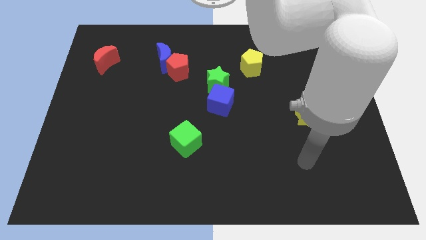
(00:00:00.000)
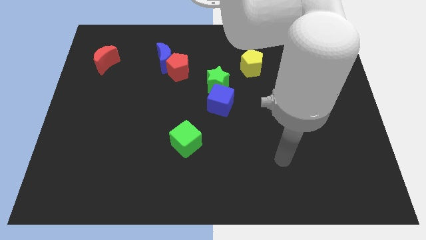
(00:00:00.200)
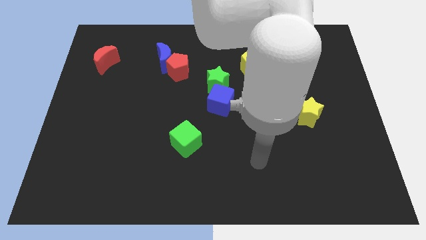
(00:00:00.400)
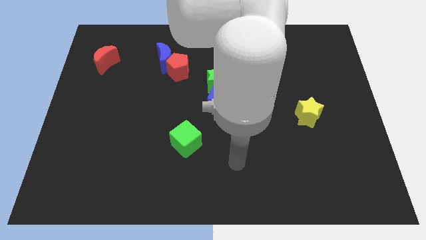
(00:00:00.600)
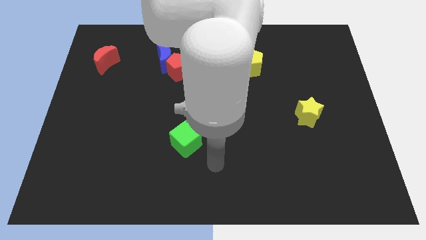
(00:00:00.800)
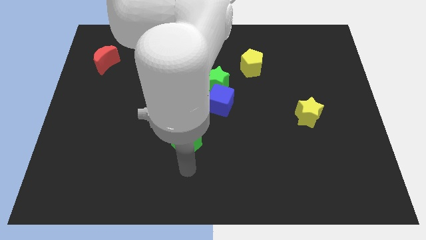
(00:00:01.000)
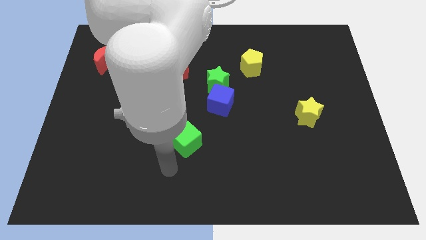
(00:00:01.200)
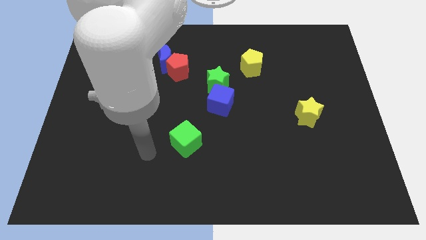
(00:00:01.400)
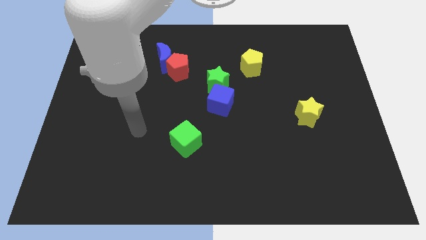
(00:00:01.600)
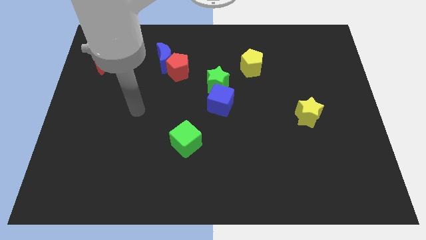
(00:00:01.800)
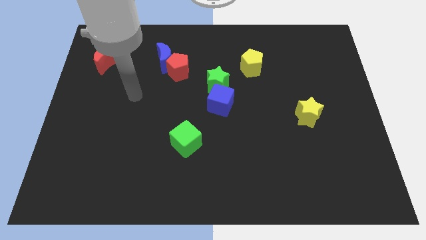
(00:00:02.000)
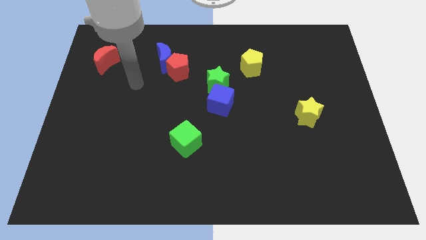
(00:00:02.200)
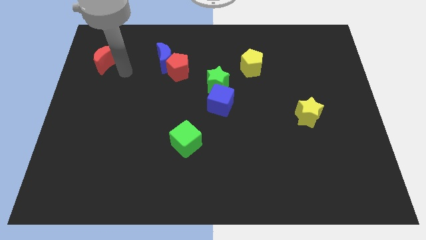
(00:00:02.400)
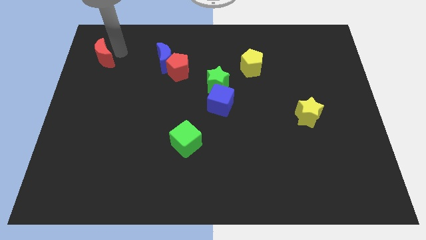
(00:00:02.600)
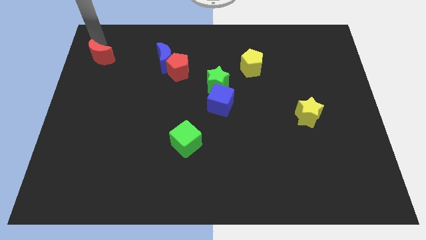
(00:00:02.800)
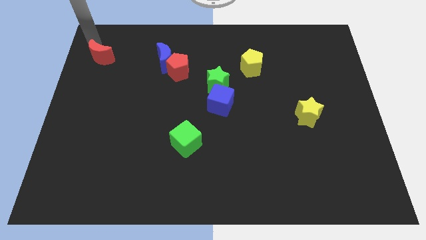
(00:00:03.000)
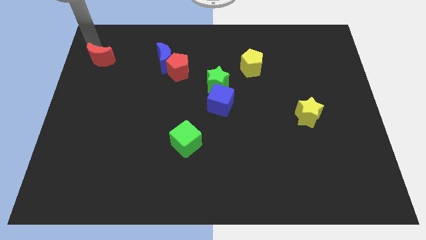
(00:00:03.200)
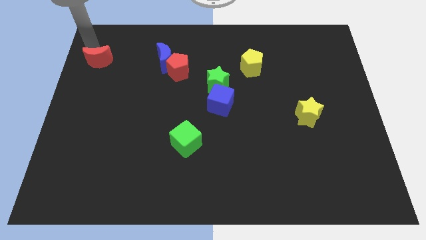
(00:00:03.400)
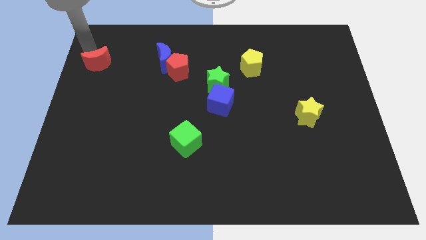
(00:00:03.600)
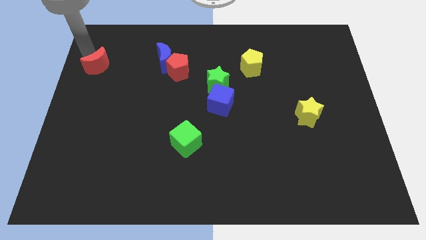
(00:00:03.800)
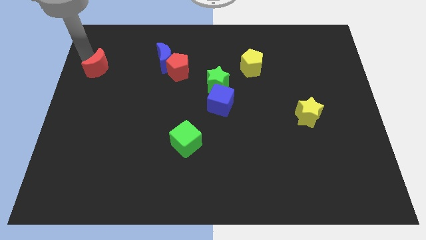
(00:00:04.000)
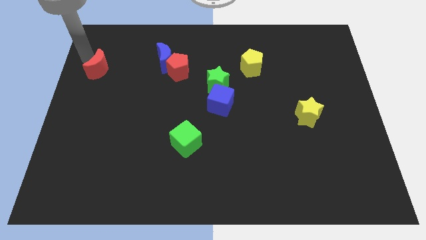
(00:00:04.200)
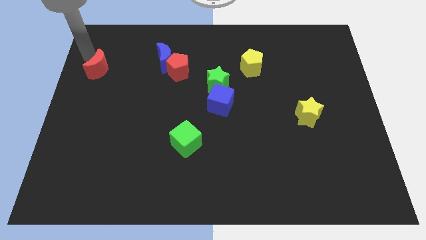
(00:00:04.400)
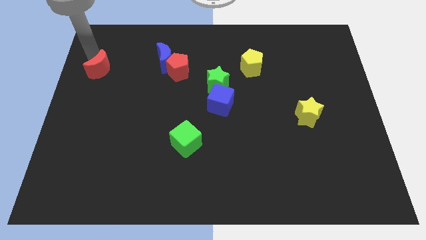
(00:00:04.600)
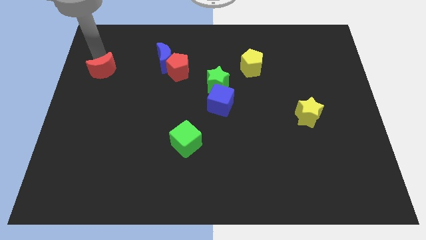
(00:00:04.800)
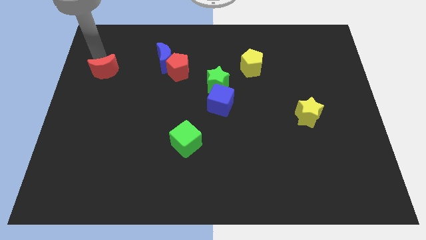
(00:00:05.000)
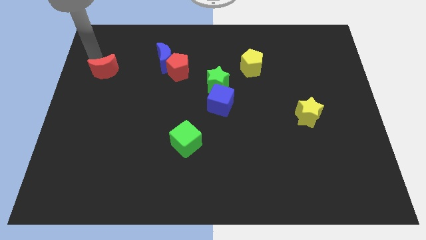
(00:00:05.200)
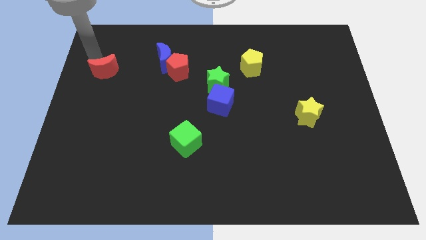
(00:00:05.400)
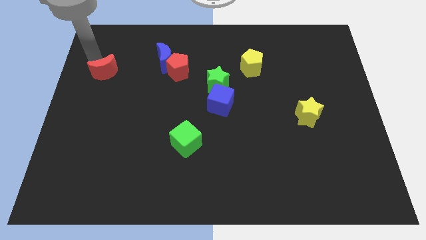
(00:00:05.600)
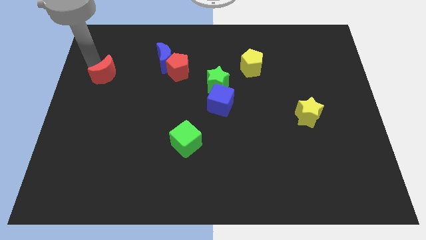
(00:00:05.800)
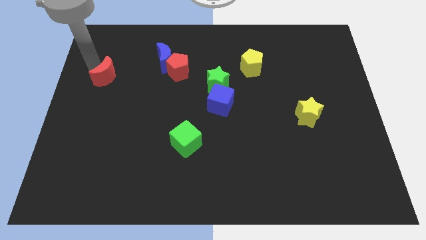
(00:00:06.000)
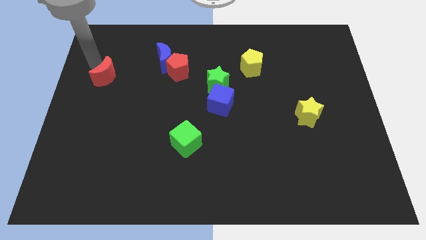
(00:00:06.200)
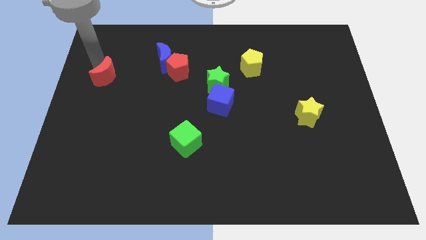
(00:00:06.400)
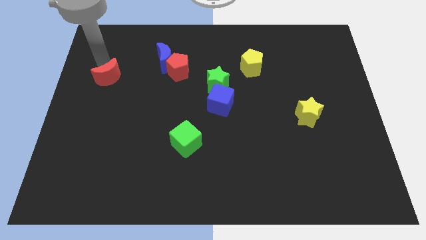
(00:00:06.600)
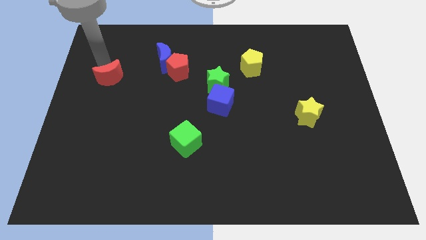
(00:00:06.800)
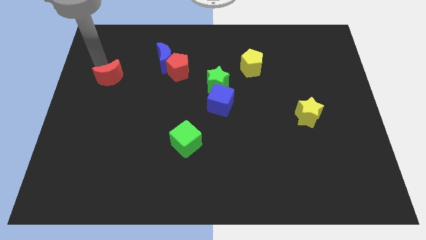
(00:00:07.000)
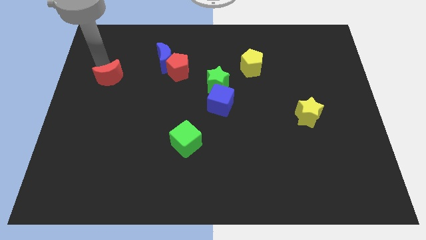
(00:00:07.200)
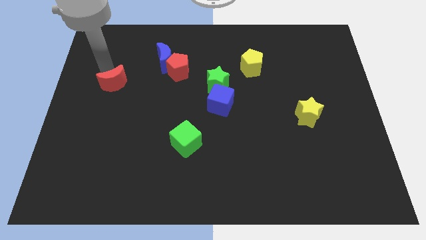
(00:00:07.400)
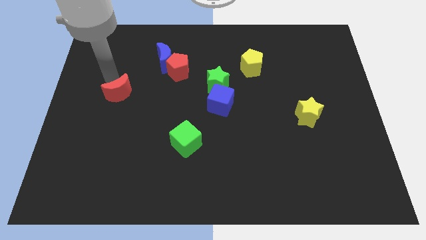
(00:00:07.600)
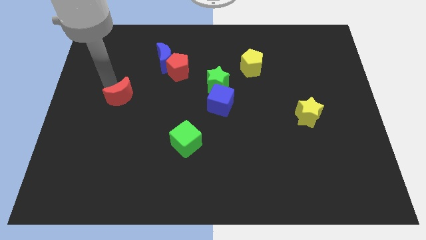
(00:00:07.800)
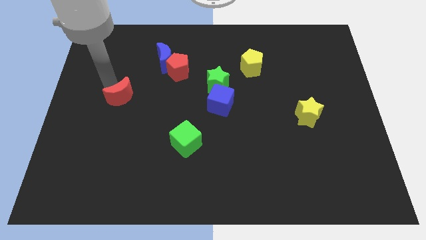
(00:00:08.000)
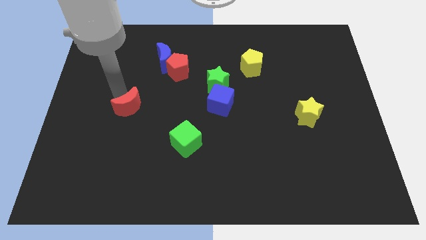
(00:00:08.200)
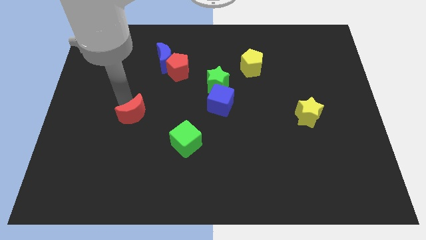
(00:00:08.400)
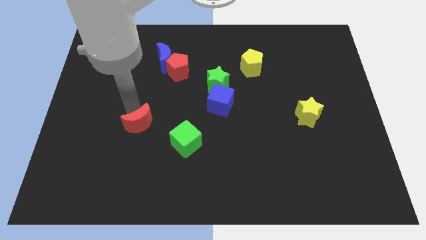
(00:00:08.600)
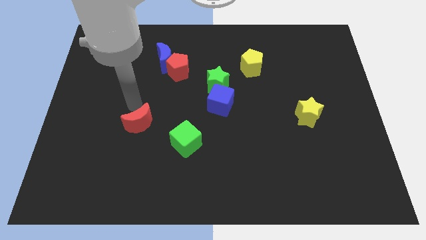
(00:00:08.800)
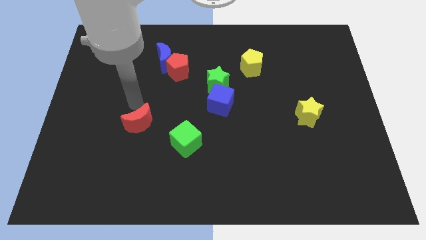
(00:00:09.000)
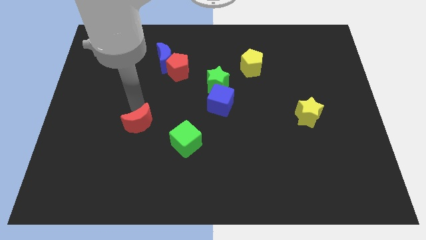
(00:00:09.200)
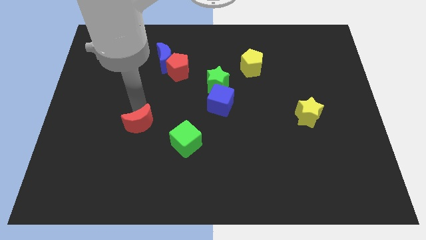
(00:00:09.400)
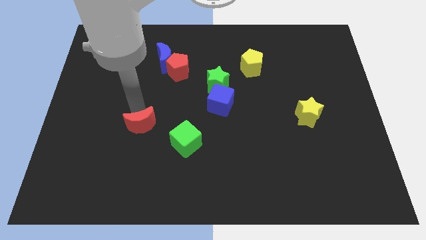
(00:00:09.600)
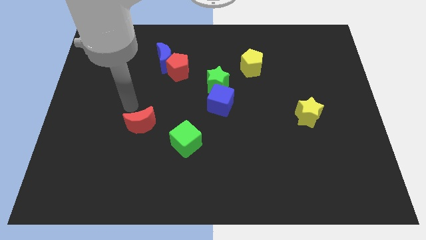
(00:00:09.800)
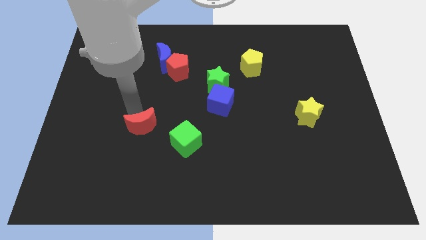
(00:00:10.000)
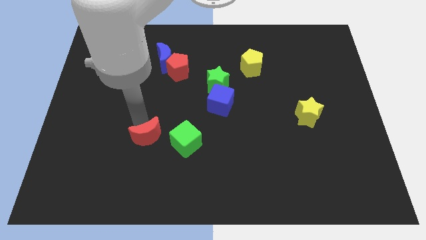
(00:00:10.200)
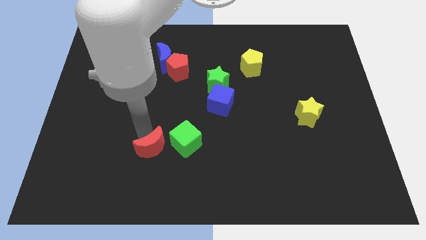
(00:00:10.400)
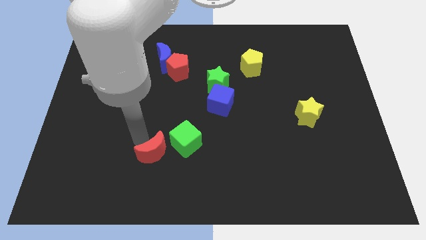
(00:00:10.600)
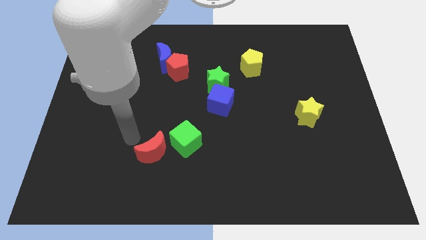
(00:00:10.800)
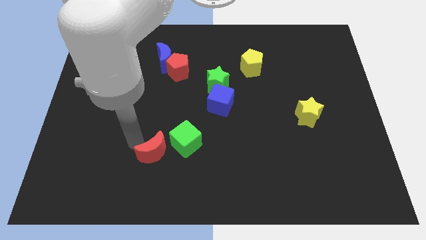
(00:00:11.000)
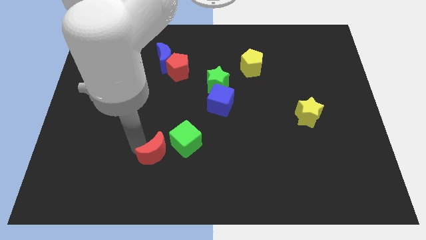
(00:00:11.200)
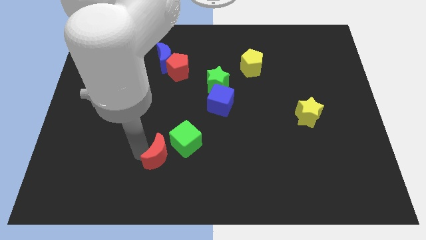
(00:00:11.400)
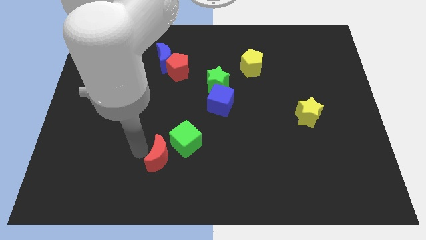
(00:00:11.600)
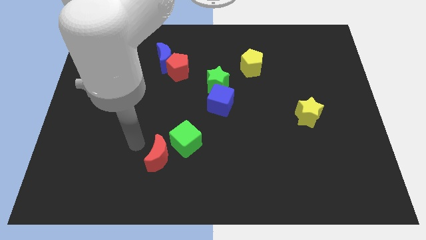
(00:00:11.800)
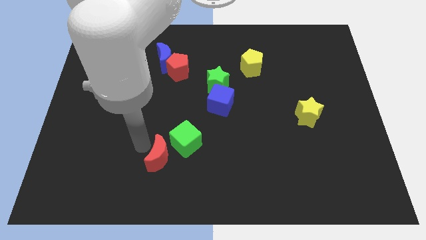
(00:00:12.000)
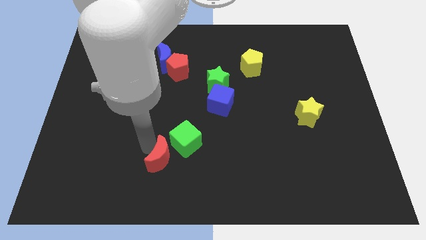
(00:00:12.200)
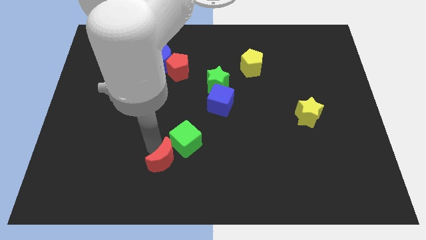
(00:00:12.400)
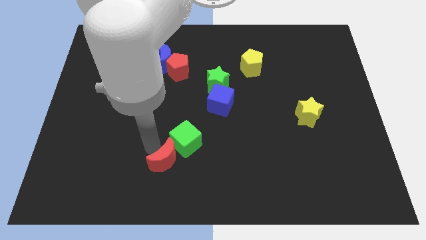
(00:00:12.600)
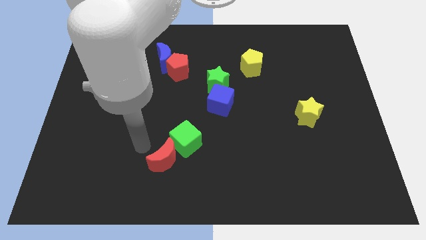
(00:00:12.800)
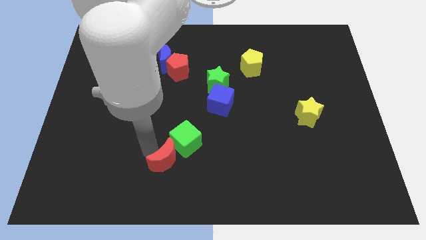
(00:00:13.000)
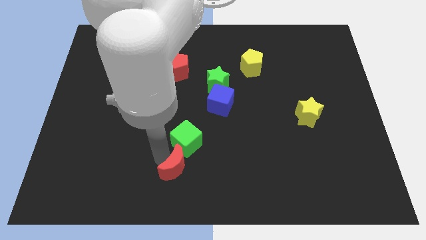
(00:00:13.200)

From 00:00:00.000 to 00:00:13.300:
push the red moon to the bottom side

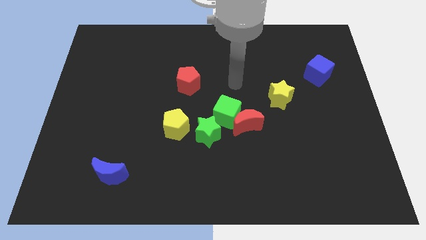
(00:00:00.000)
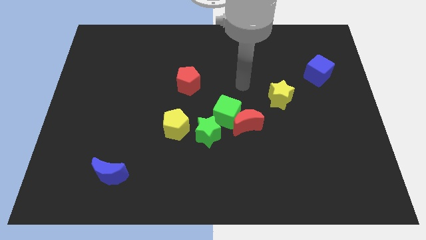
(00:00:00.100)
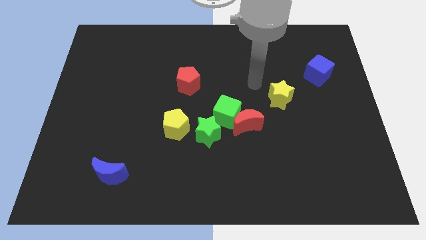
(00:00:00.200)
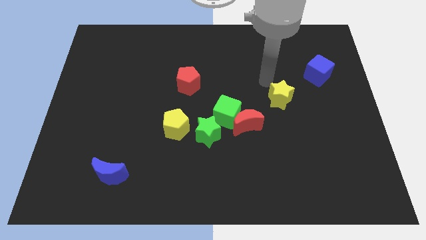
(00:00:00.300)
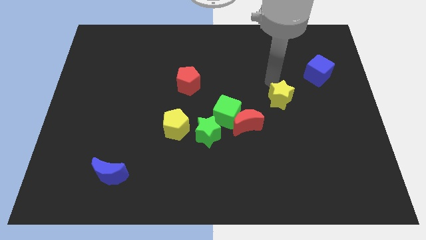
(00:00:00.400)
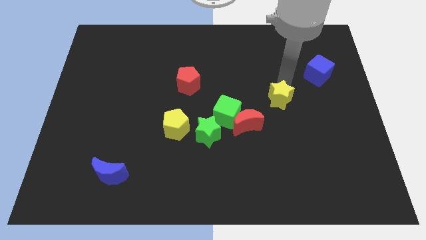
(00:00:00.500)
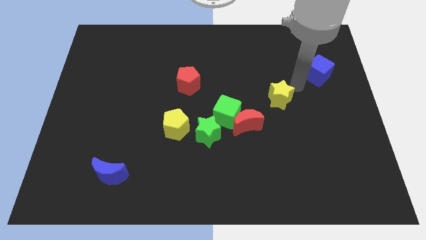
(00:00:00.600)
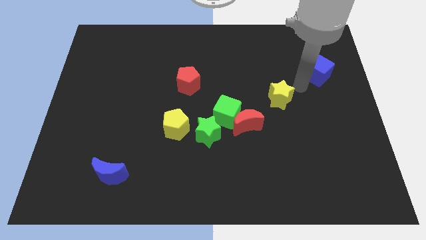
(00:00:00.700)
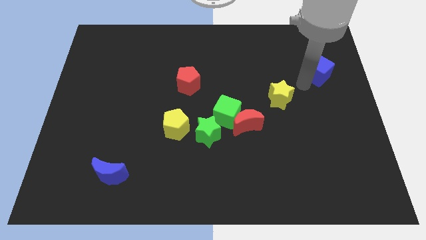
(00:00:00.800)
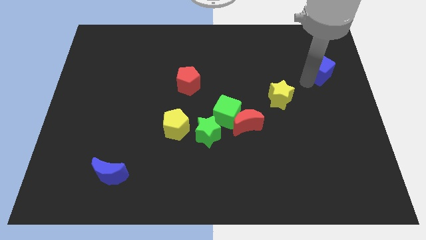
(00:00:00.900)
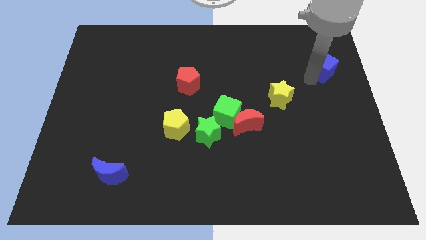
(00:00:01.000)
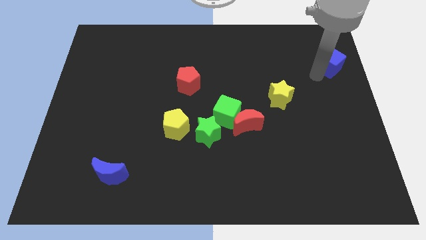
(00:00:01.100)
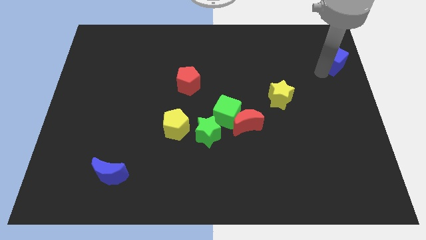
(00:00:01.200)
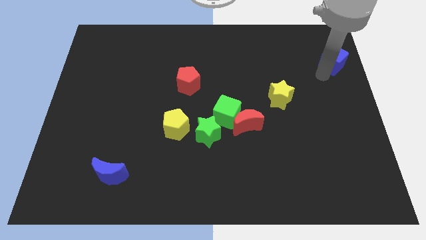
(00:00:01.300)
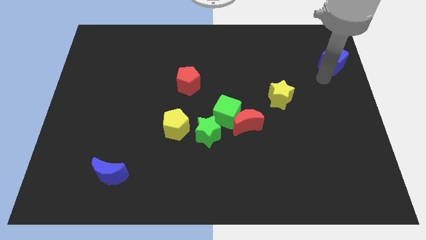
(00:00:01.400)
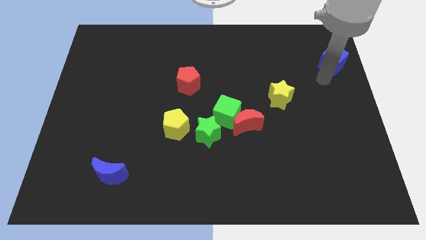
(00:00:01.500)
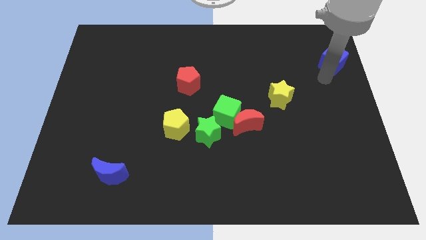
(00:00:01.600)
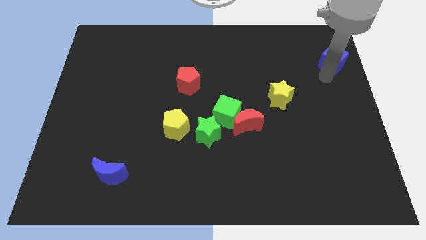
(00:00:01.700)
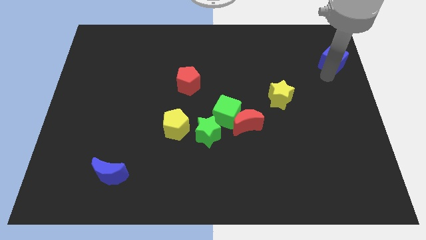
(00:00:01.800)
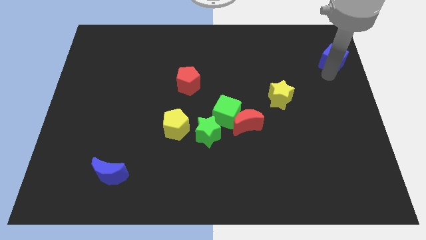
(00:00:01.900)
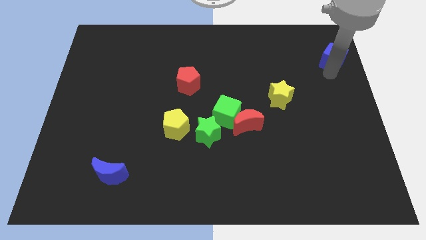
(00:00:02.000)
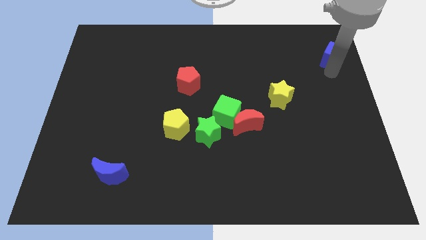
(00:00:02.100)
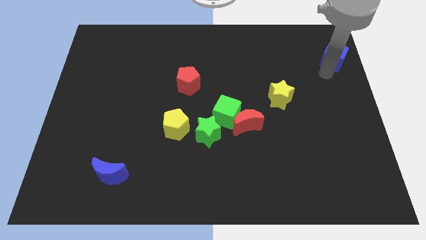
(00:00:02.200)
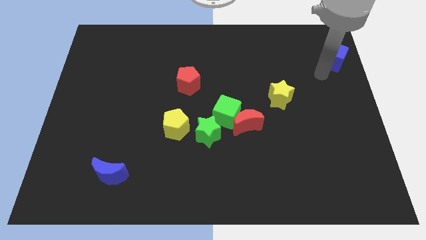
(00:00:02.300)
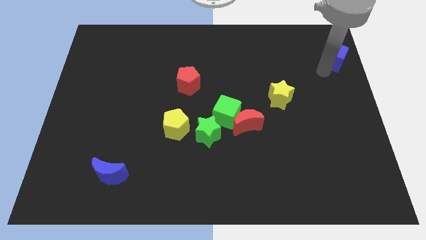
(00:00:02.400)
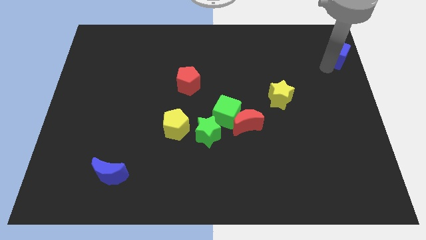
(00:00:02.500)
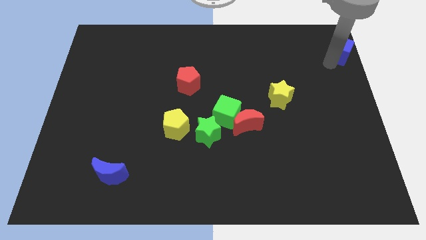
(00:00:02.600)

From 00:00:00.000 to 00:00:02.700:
push the blue cube to the upper right corner
